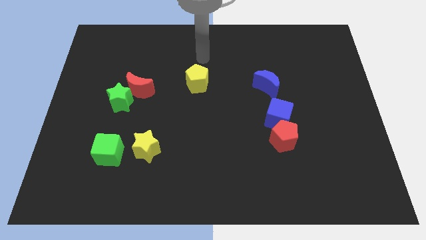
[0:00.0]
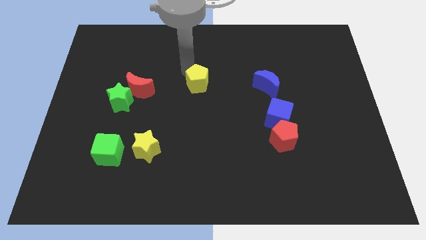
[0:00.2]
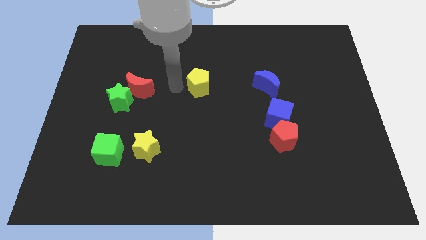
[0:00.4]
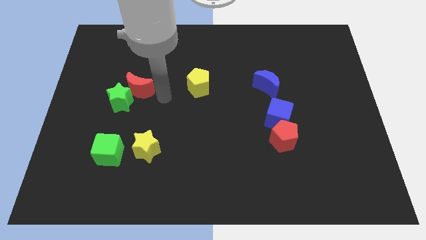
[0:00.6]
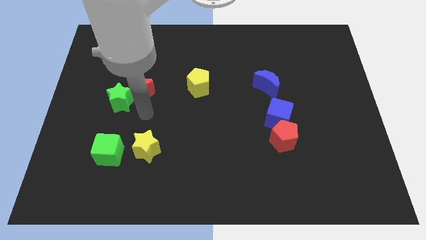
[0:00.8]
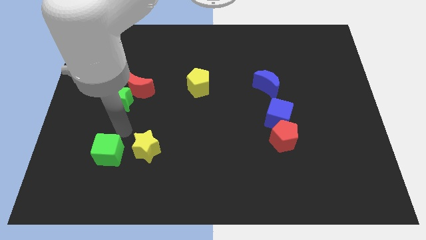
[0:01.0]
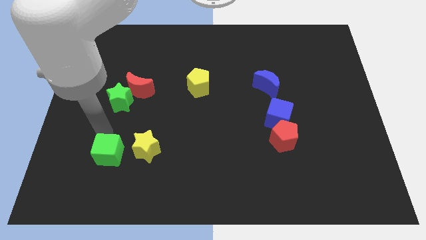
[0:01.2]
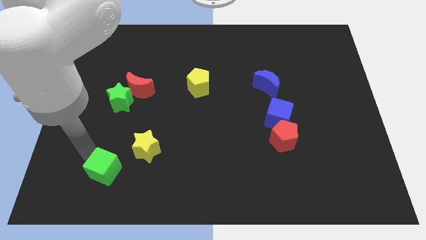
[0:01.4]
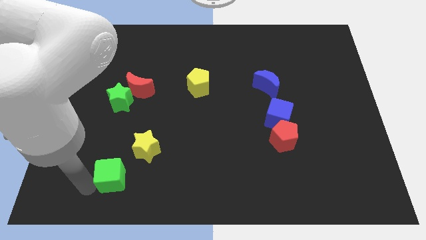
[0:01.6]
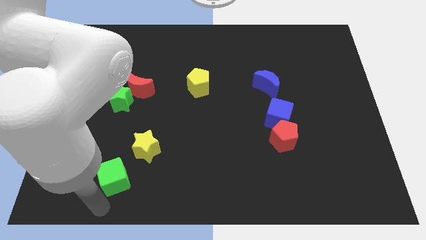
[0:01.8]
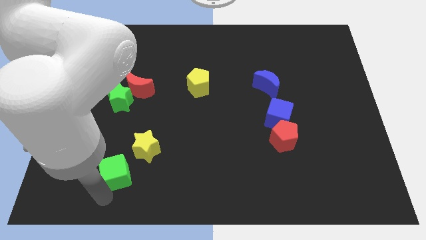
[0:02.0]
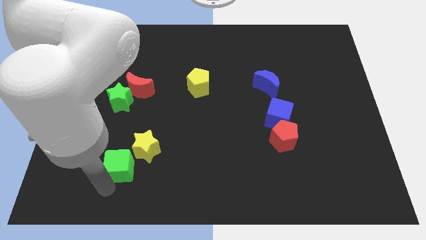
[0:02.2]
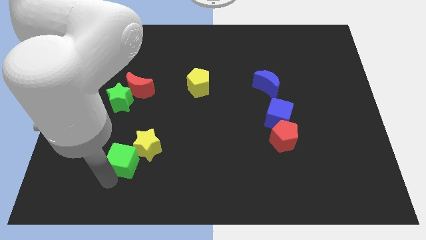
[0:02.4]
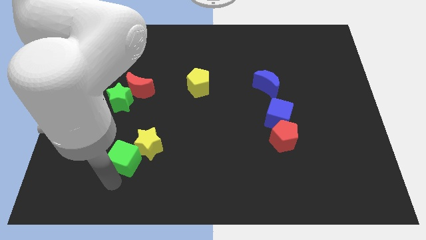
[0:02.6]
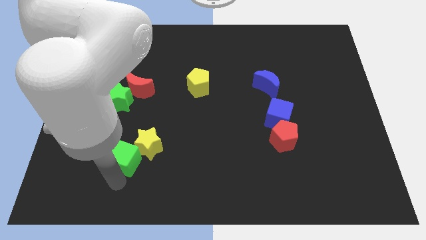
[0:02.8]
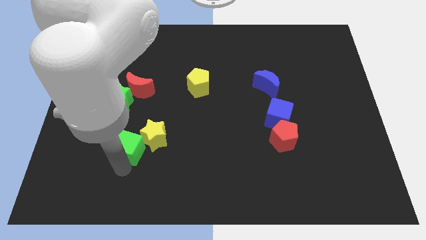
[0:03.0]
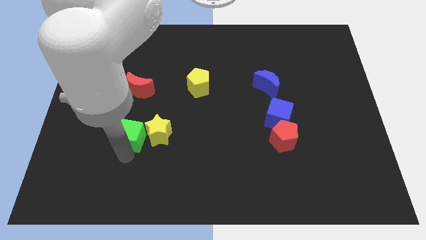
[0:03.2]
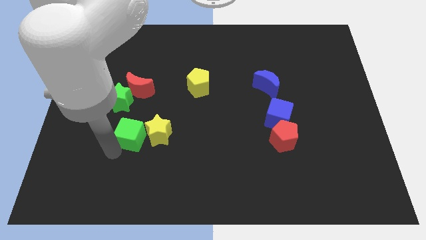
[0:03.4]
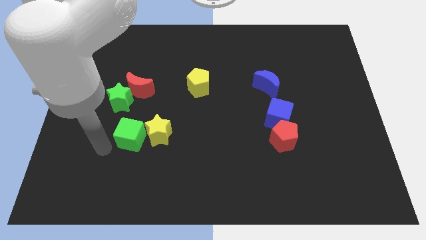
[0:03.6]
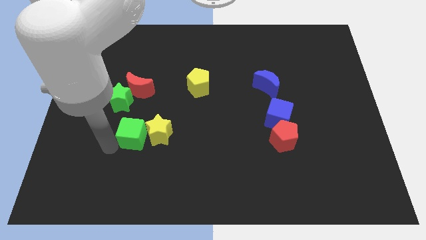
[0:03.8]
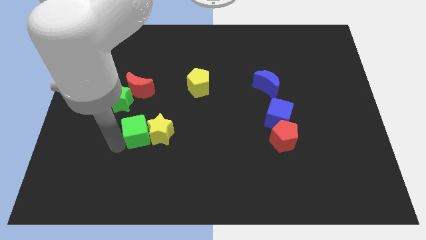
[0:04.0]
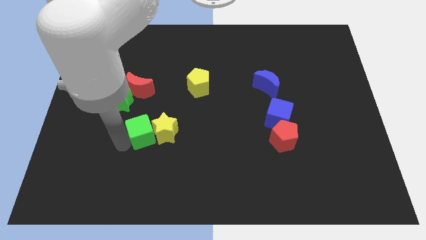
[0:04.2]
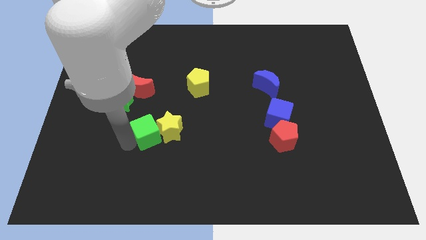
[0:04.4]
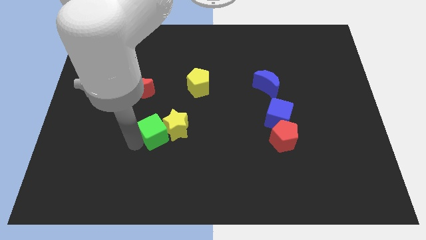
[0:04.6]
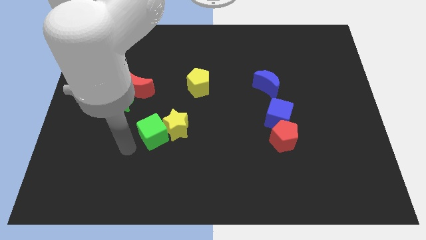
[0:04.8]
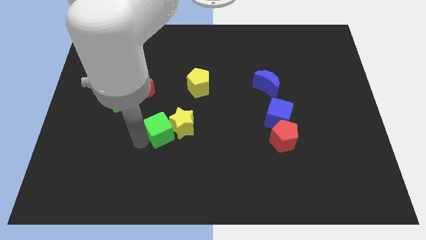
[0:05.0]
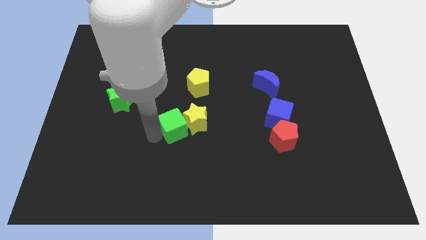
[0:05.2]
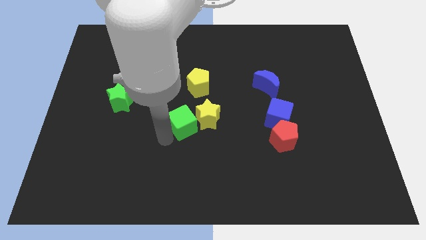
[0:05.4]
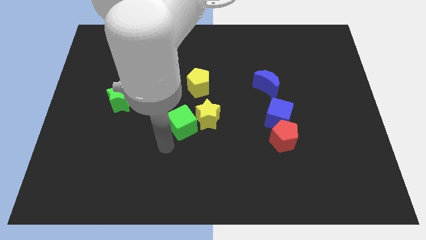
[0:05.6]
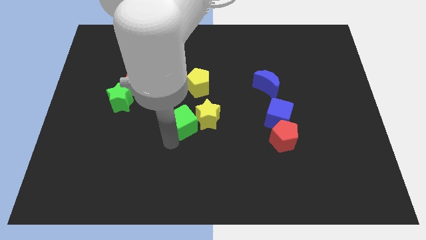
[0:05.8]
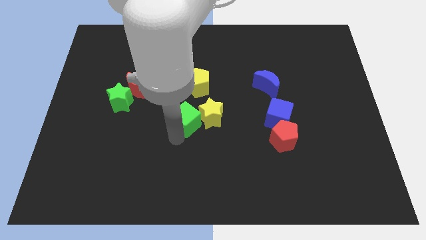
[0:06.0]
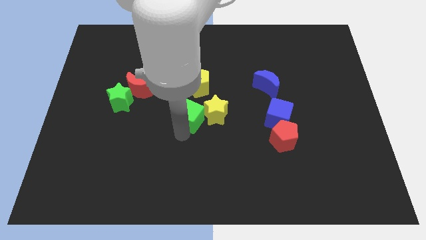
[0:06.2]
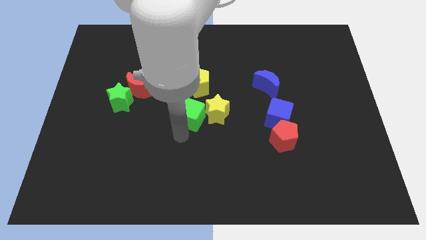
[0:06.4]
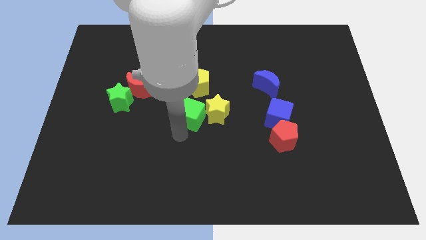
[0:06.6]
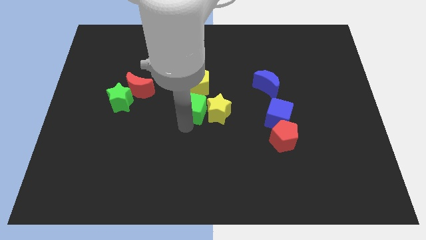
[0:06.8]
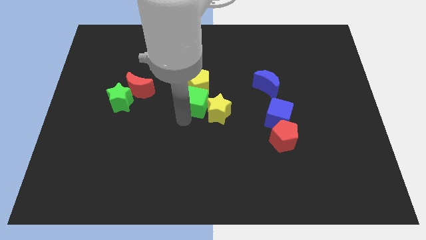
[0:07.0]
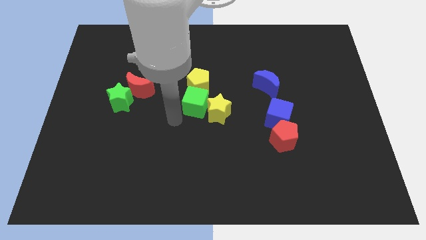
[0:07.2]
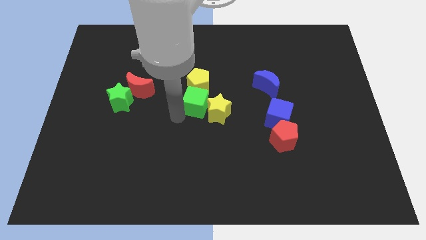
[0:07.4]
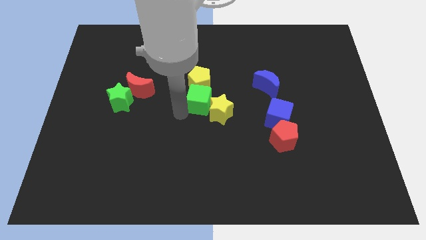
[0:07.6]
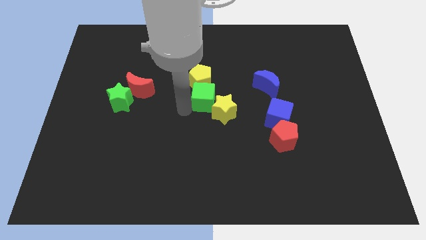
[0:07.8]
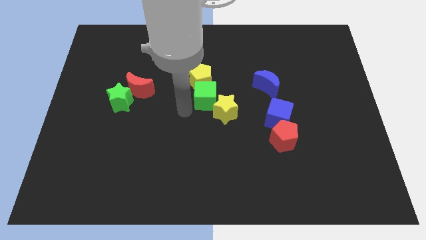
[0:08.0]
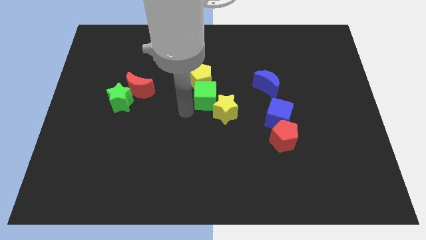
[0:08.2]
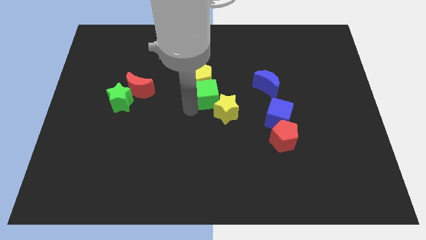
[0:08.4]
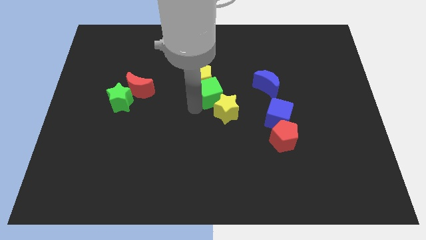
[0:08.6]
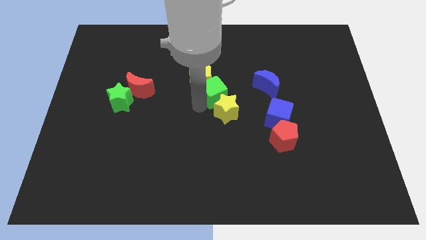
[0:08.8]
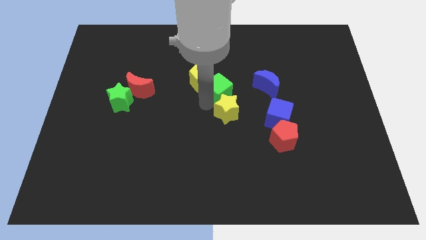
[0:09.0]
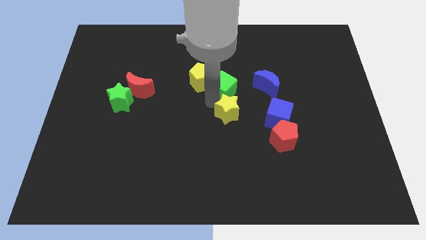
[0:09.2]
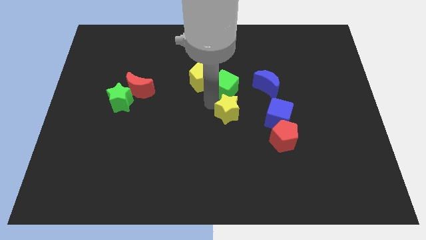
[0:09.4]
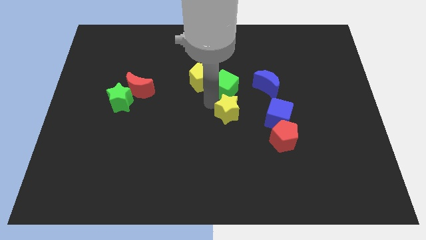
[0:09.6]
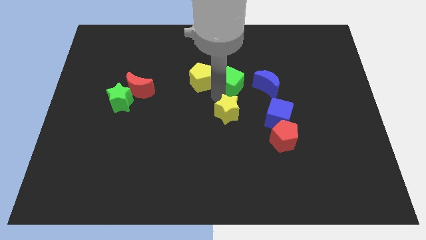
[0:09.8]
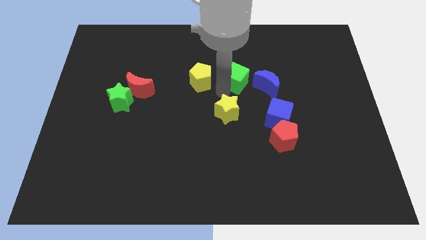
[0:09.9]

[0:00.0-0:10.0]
push the green cube diagonally up and to the left of the blue moon

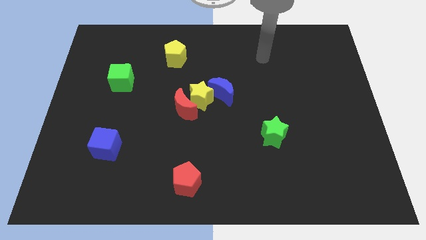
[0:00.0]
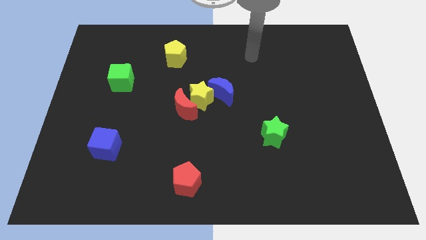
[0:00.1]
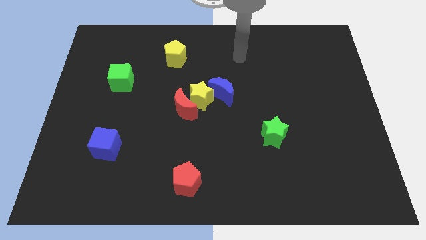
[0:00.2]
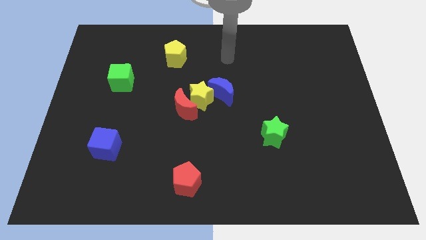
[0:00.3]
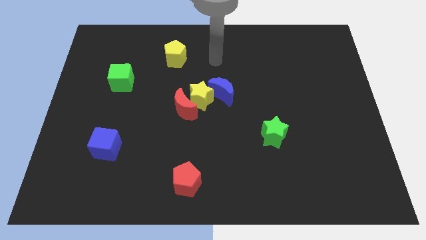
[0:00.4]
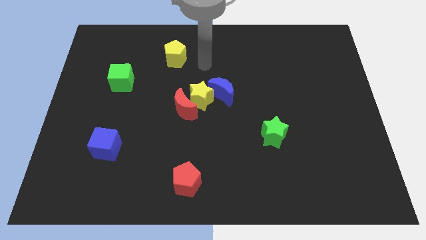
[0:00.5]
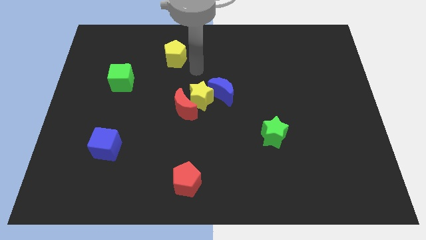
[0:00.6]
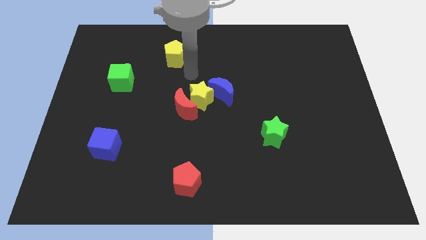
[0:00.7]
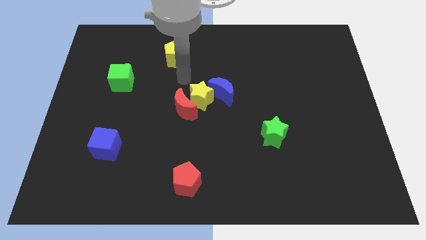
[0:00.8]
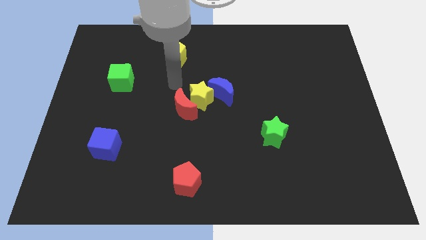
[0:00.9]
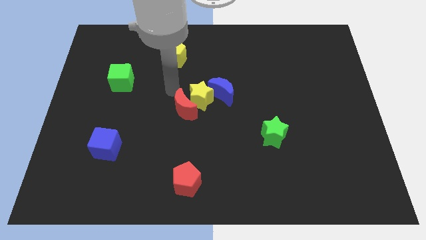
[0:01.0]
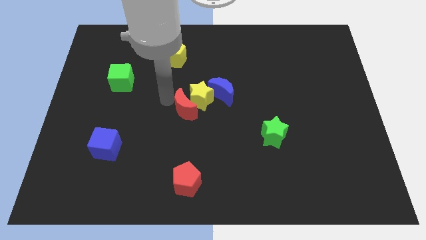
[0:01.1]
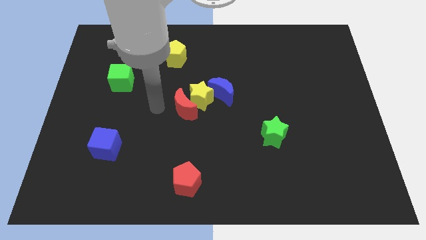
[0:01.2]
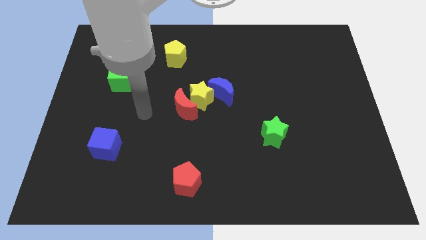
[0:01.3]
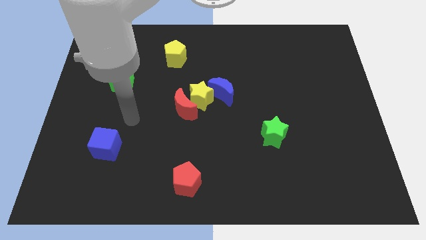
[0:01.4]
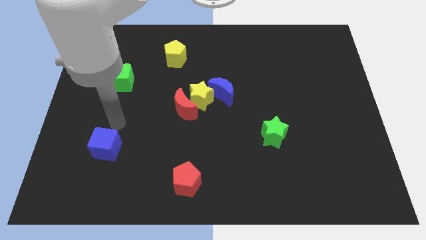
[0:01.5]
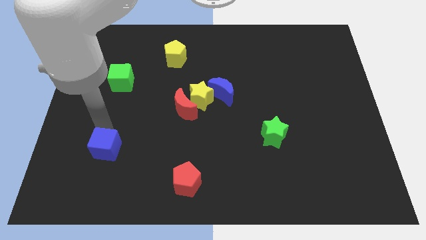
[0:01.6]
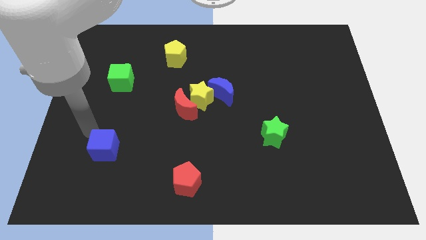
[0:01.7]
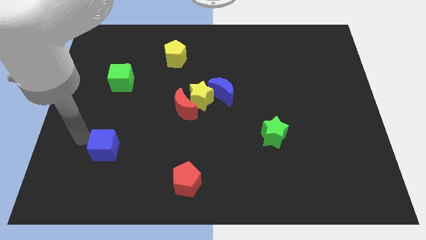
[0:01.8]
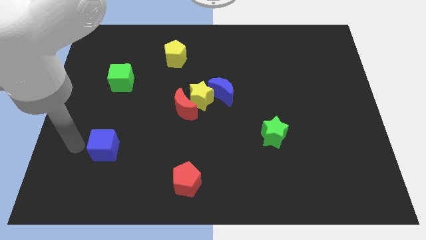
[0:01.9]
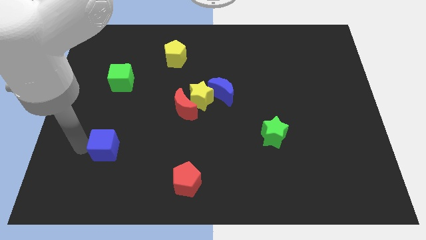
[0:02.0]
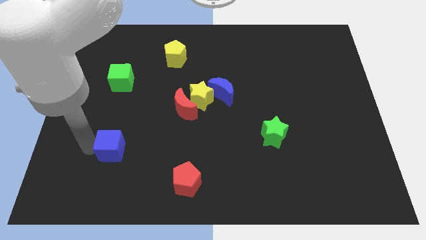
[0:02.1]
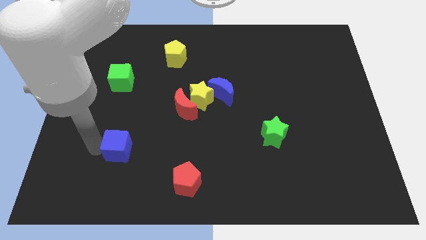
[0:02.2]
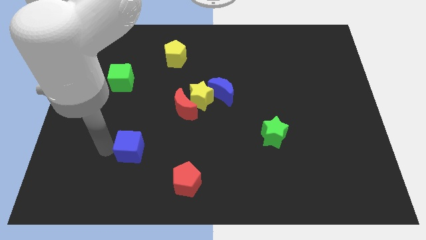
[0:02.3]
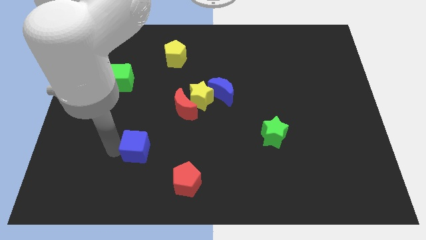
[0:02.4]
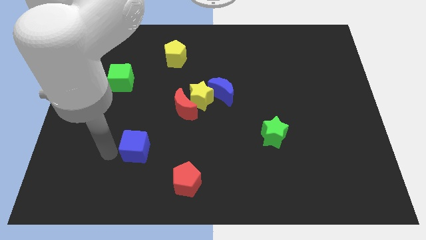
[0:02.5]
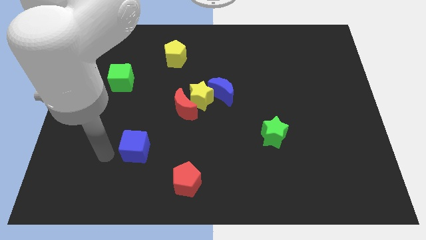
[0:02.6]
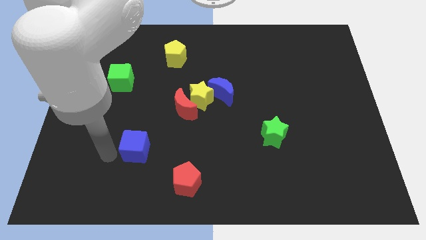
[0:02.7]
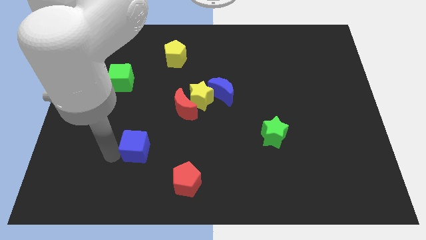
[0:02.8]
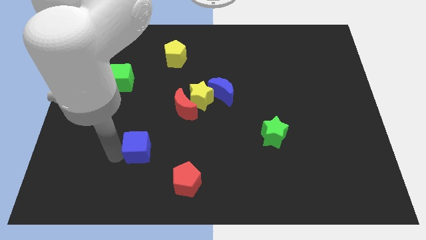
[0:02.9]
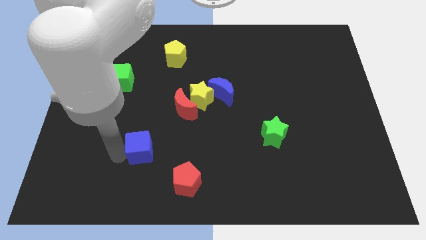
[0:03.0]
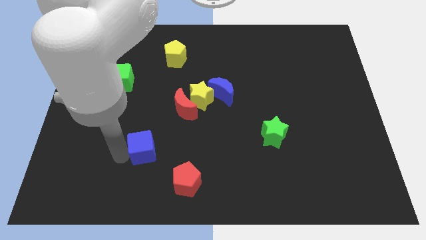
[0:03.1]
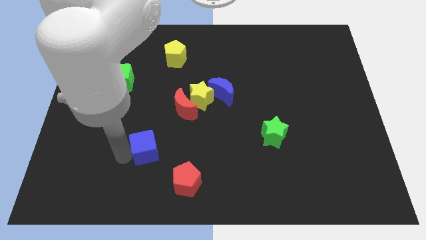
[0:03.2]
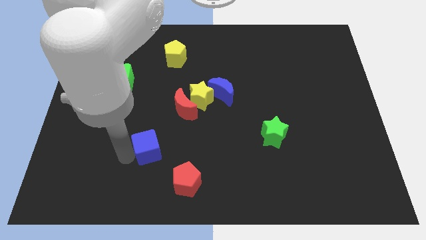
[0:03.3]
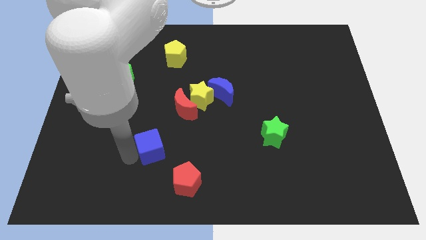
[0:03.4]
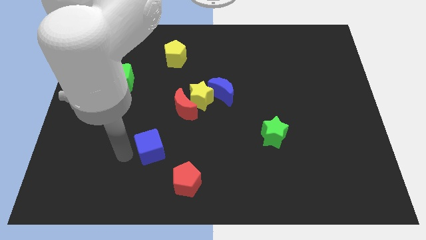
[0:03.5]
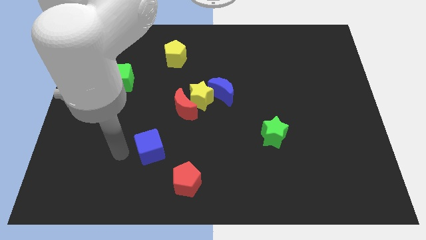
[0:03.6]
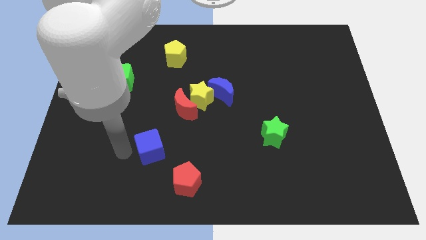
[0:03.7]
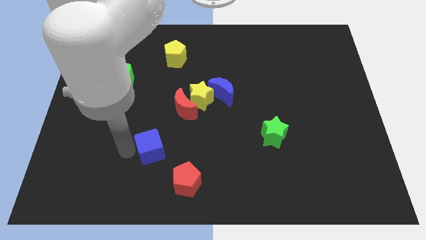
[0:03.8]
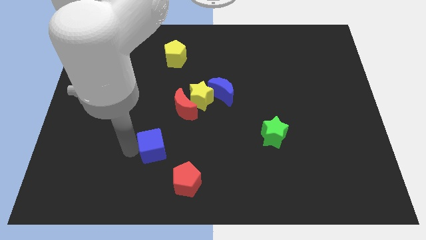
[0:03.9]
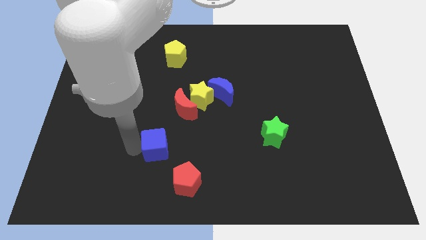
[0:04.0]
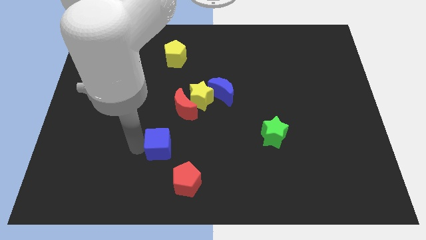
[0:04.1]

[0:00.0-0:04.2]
move the blue cube below the red moon
